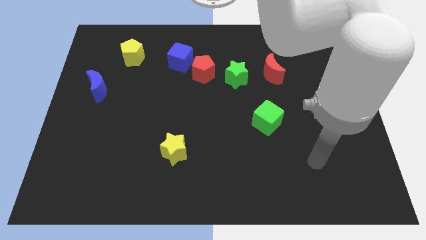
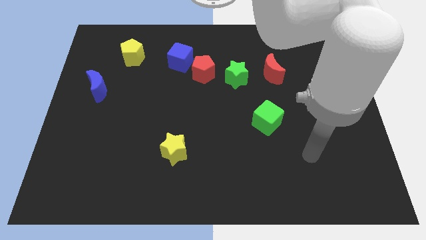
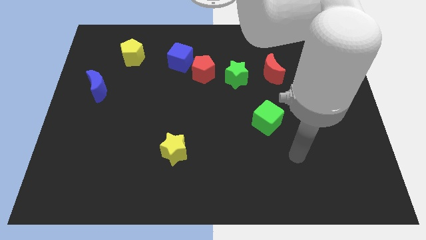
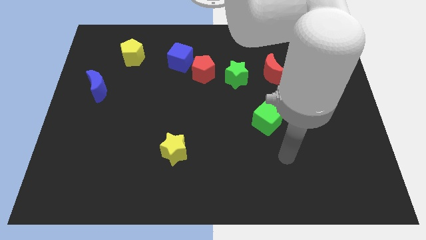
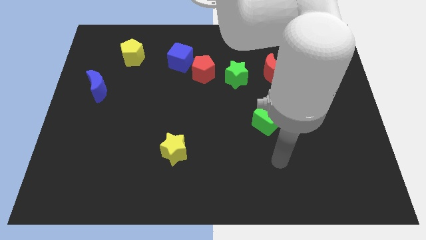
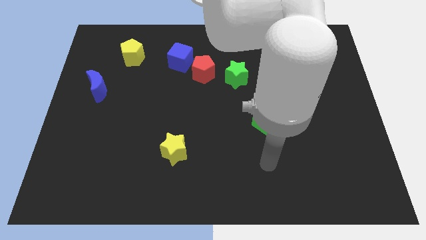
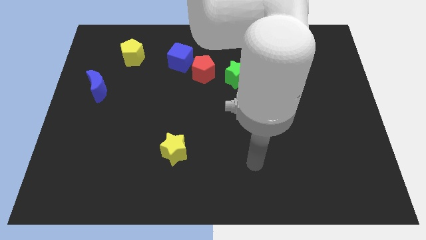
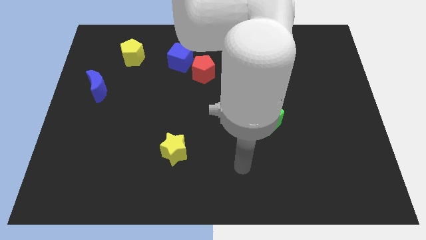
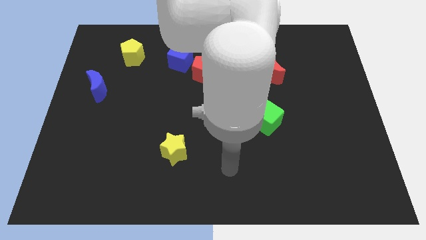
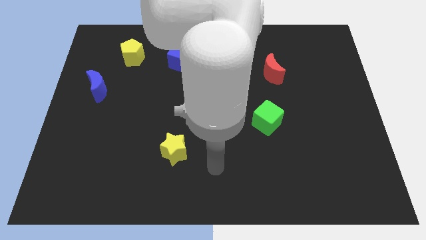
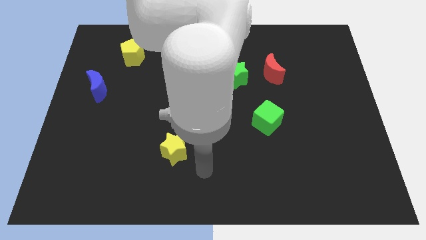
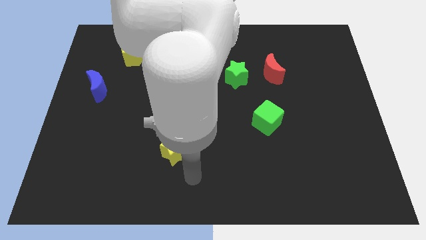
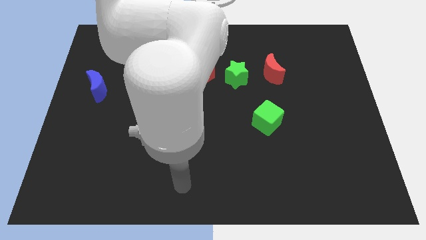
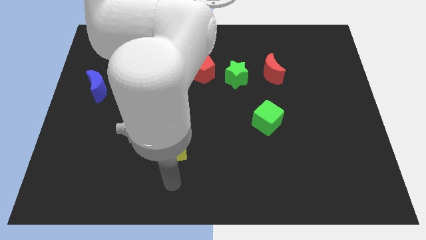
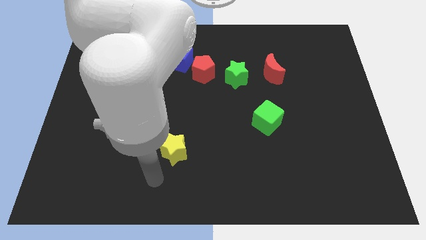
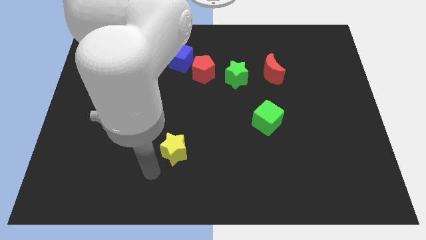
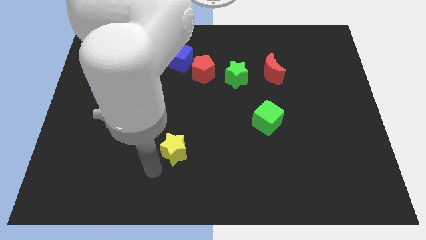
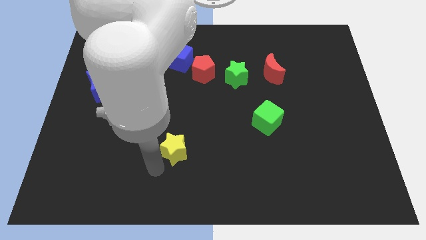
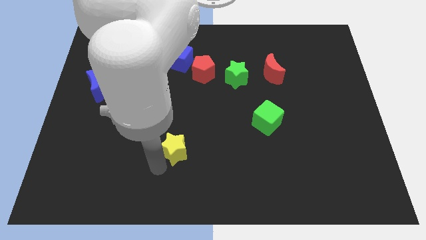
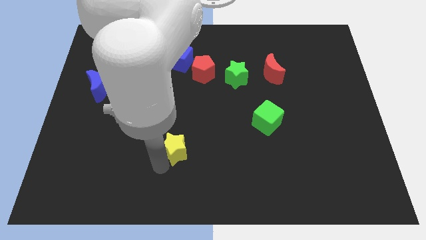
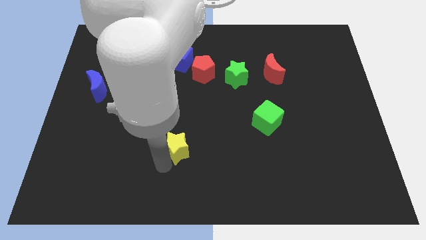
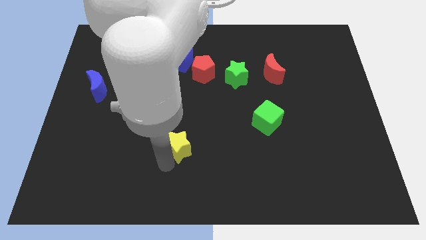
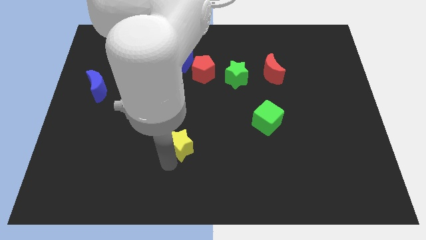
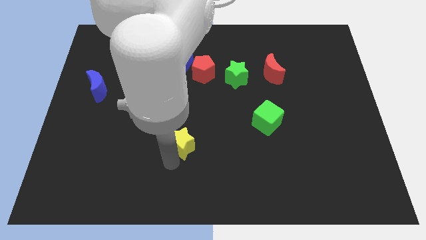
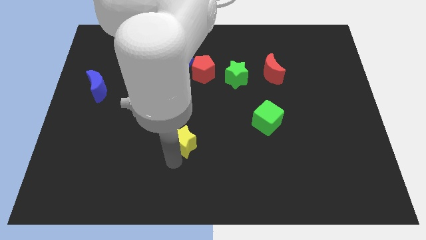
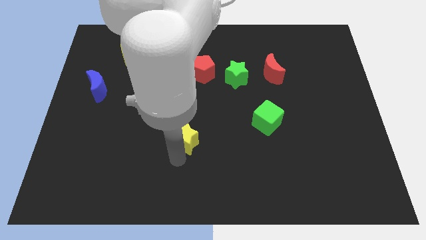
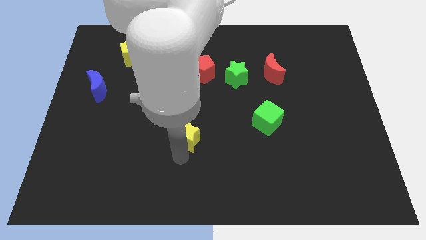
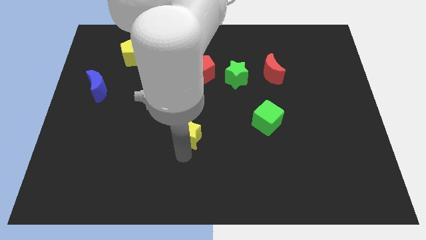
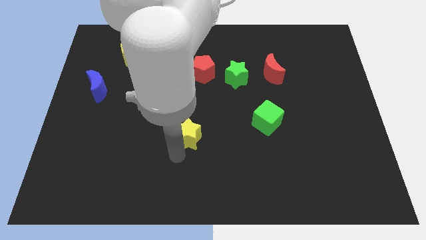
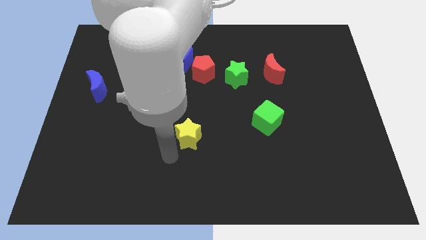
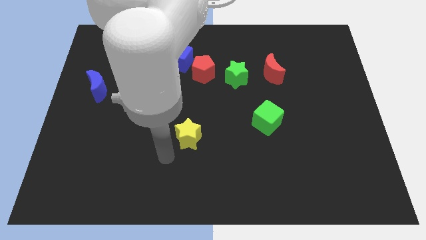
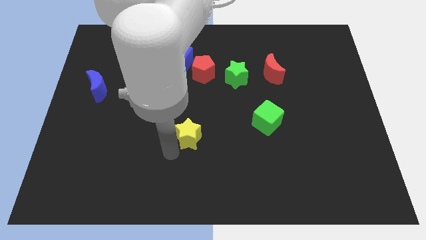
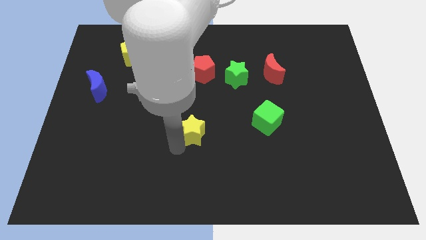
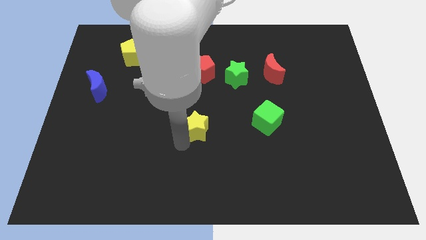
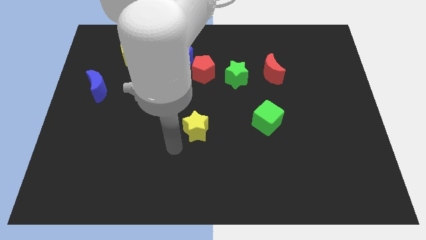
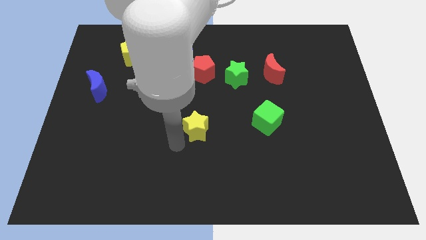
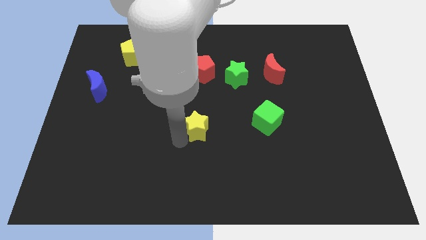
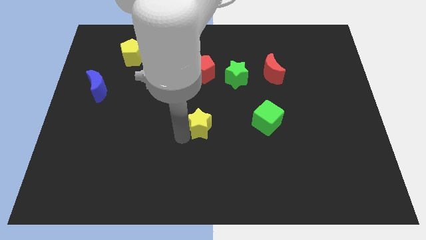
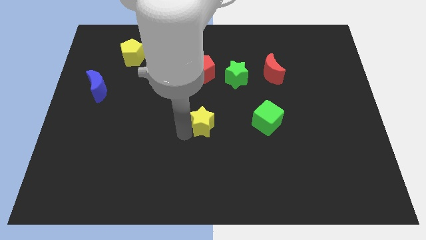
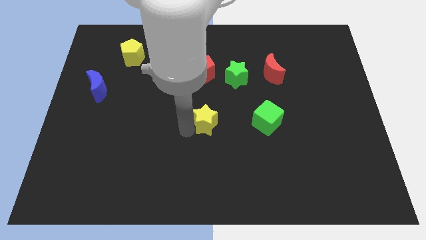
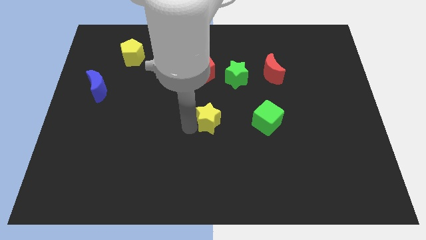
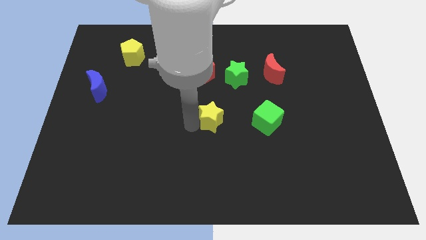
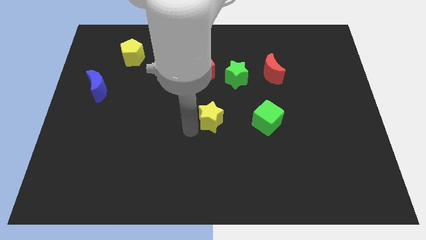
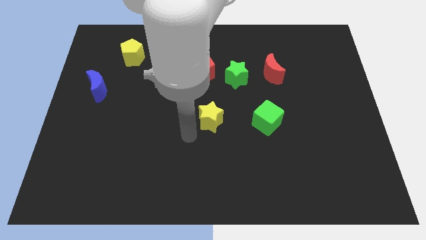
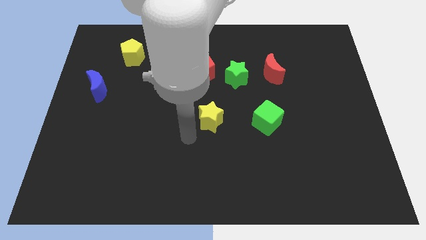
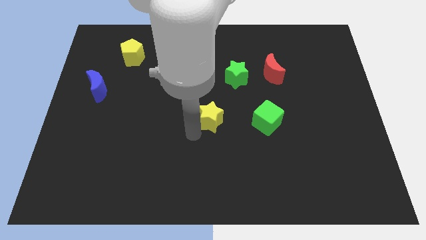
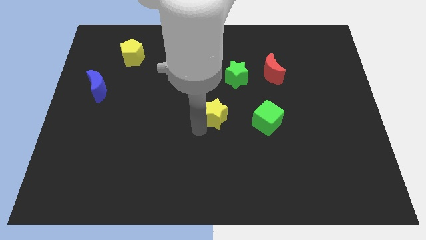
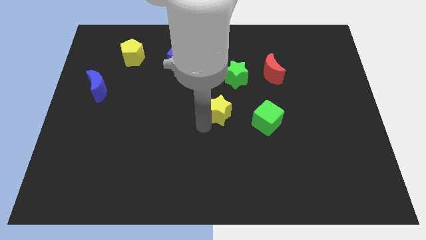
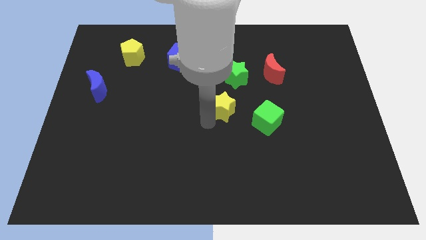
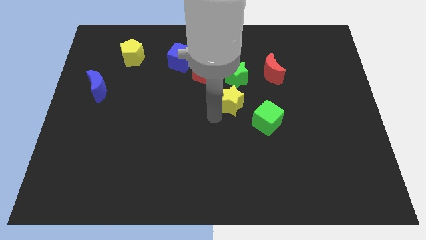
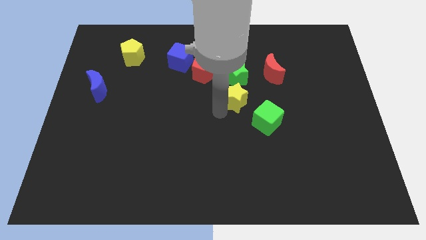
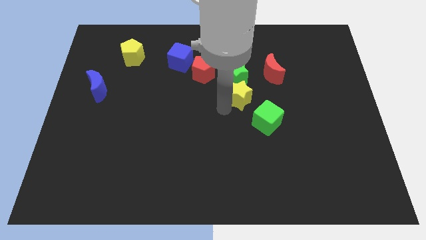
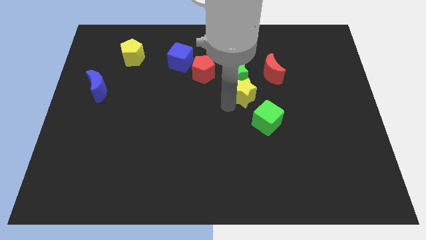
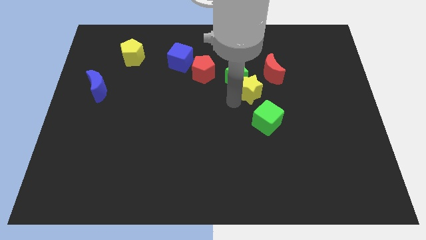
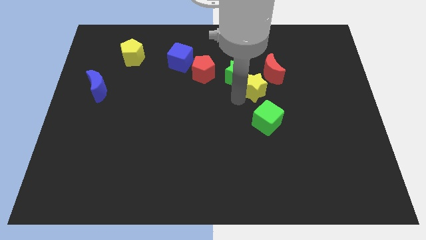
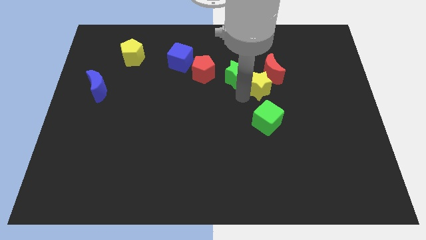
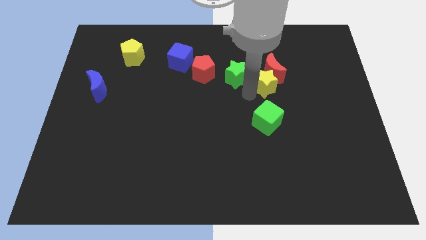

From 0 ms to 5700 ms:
push the yellow star towards the red moon

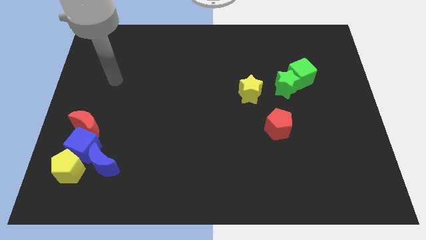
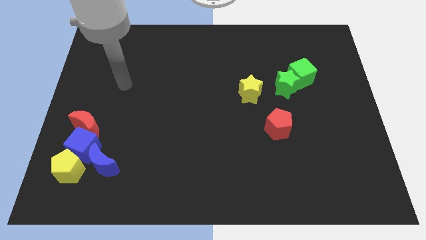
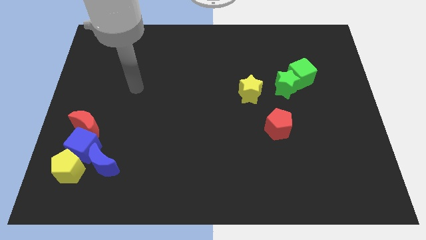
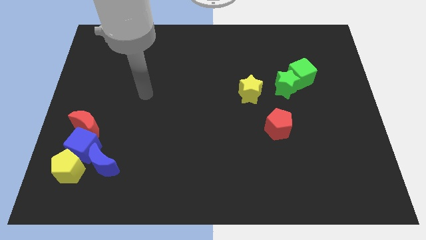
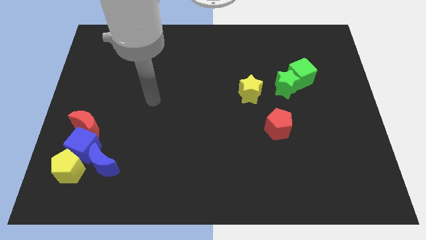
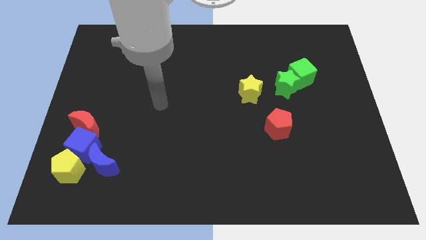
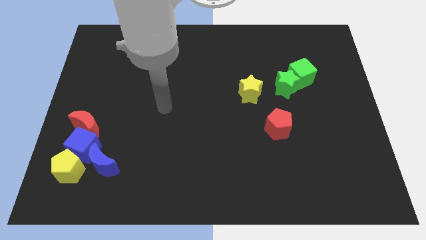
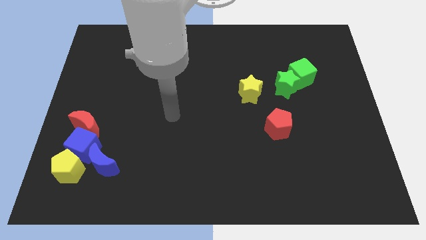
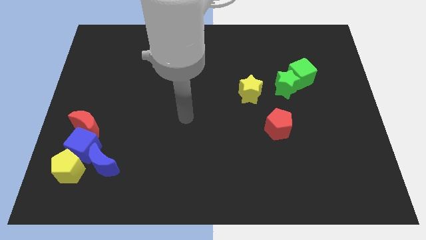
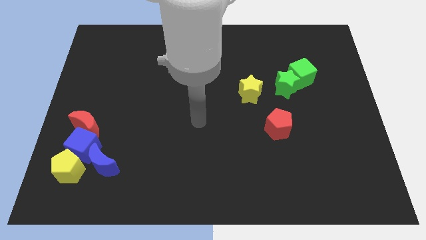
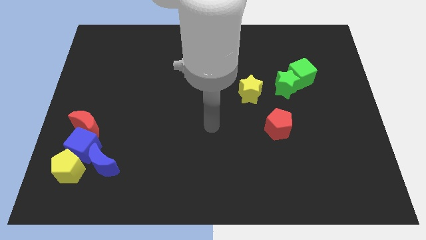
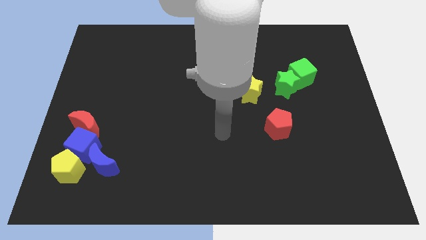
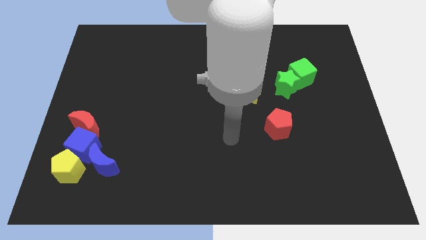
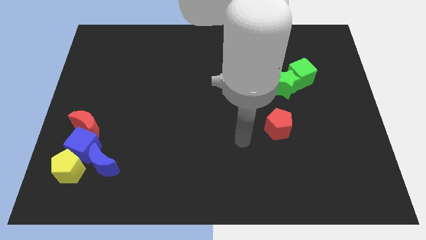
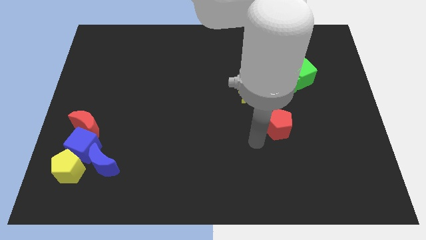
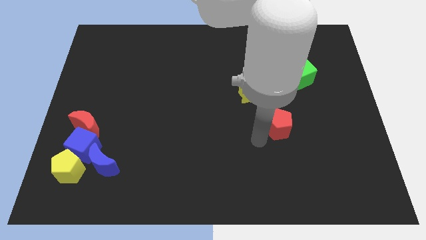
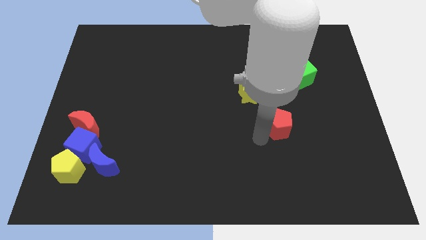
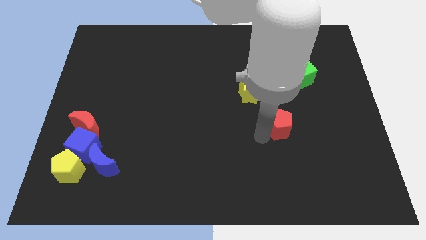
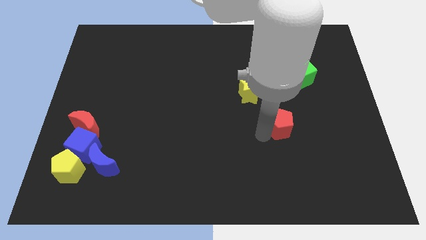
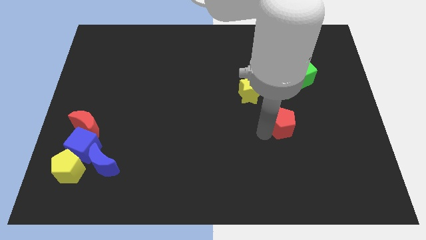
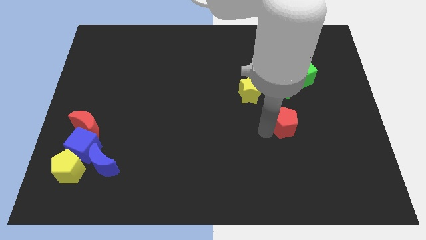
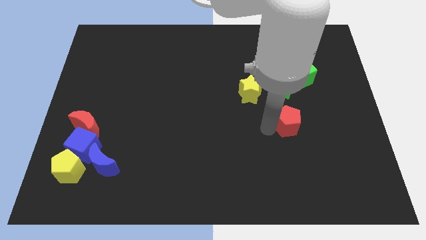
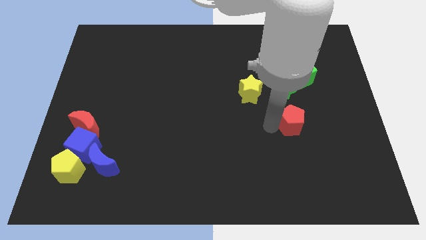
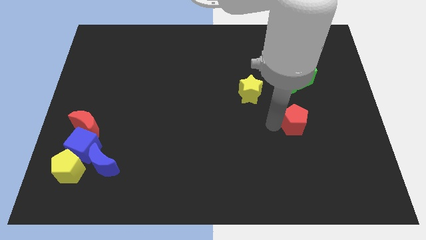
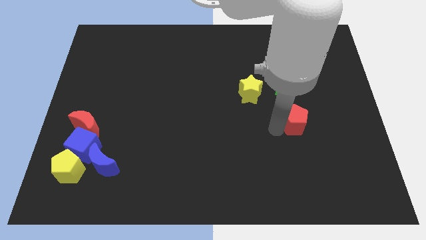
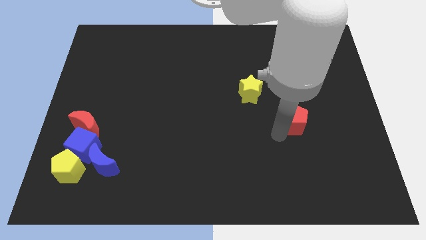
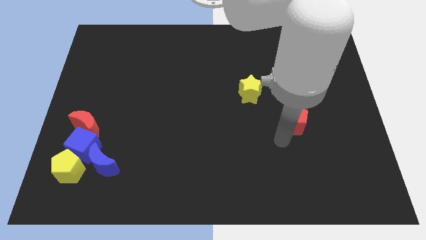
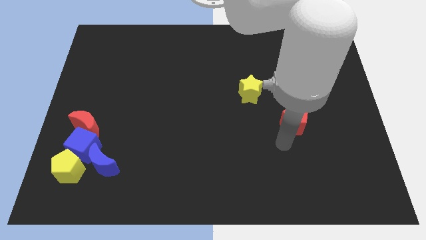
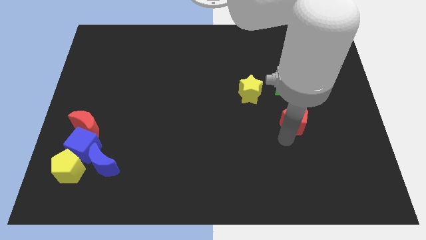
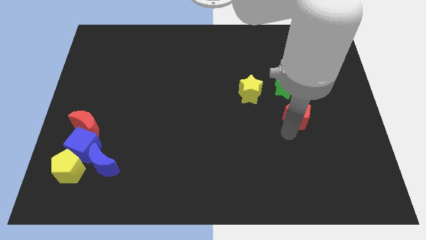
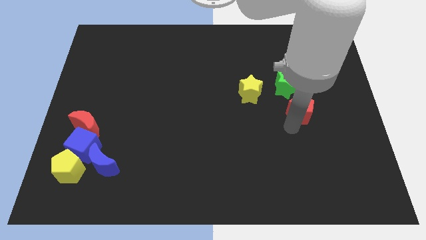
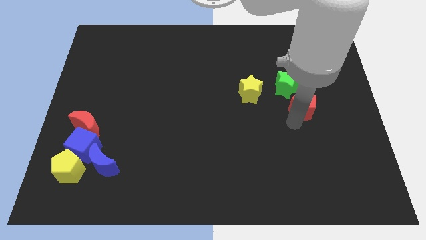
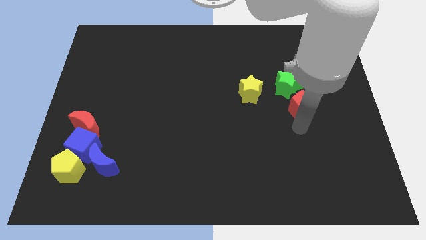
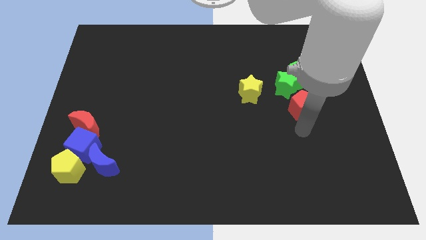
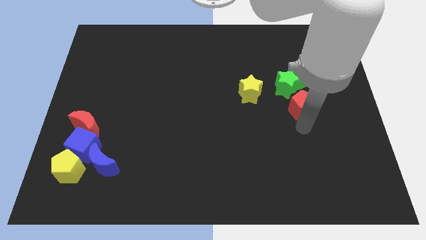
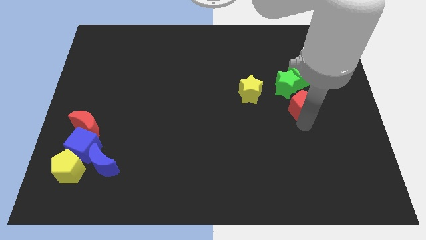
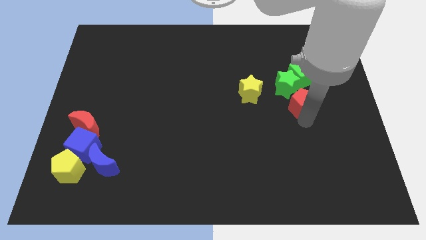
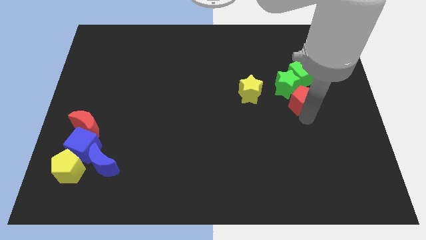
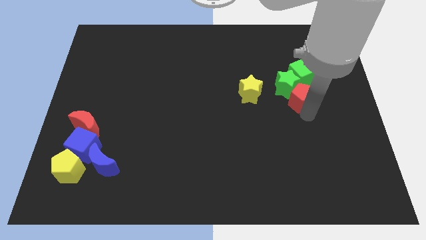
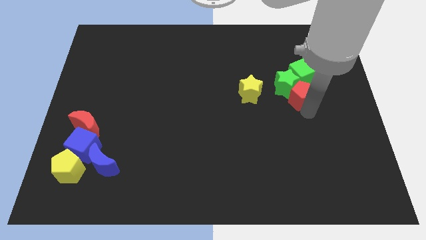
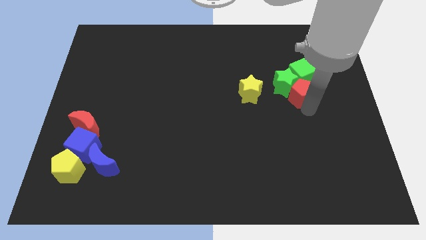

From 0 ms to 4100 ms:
put the red pentagon towards the green cube
